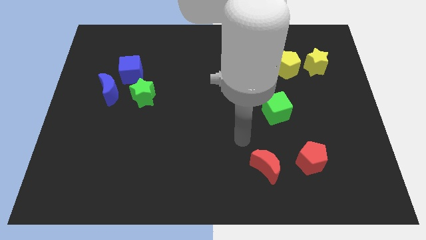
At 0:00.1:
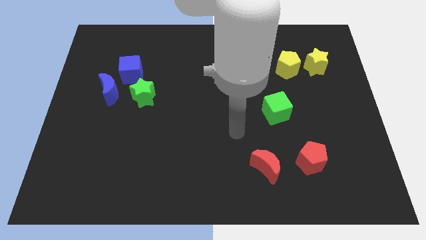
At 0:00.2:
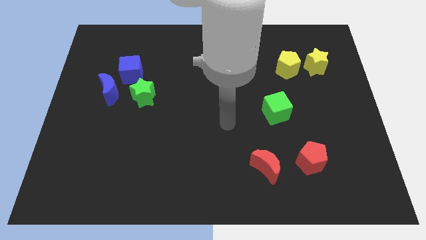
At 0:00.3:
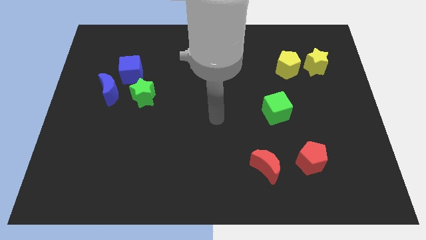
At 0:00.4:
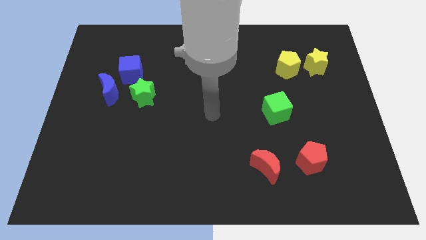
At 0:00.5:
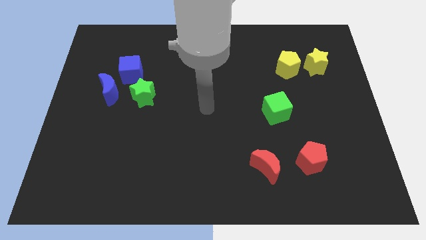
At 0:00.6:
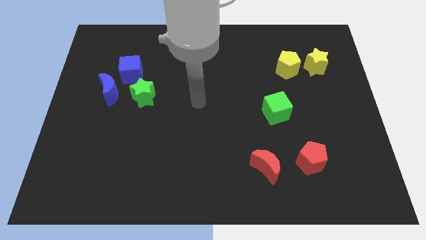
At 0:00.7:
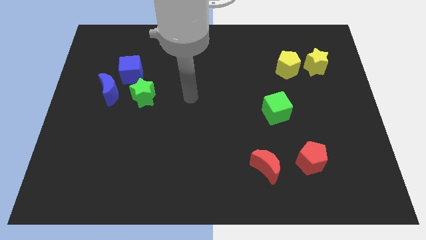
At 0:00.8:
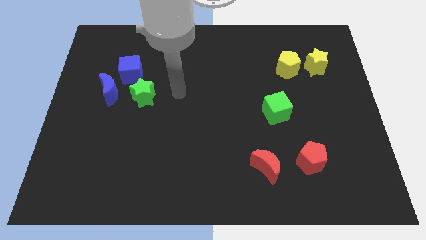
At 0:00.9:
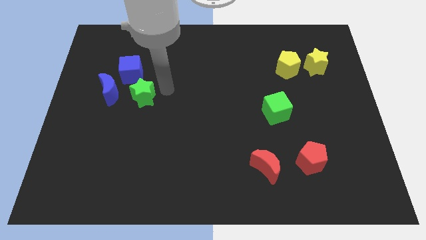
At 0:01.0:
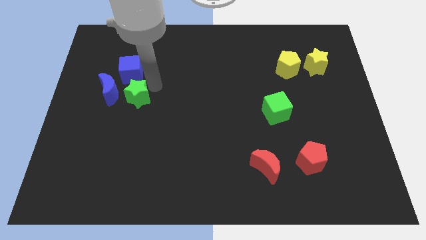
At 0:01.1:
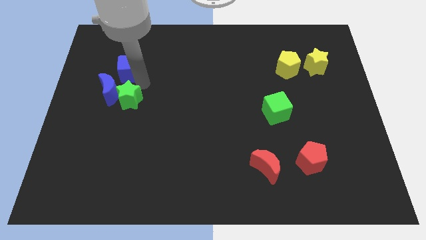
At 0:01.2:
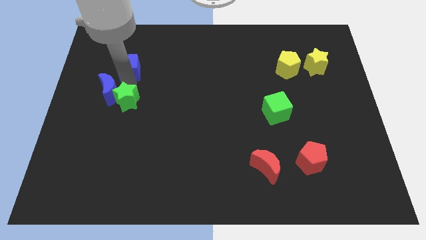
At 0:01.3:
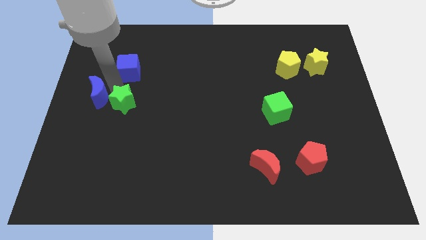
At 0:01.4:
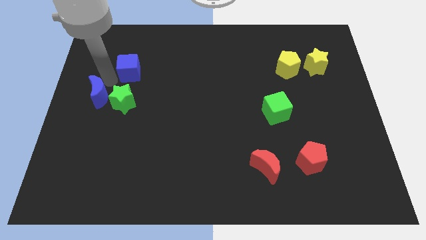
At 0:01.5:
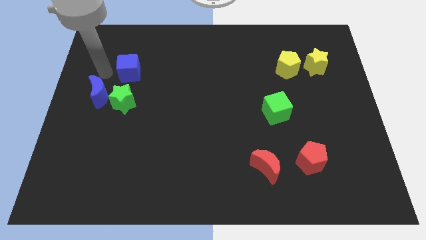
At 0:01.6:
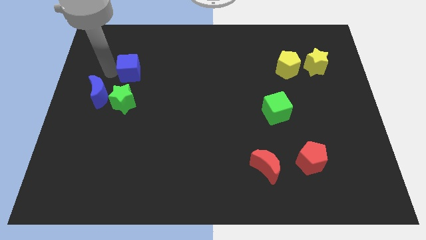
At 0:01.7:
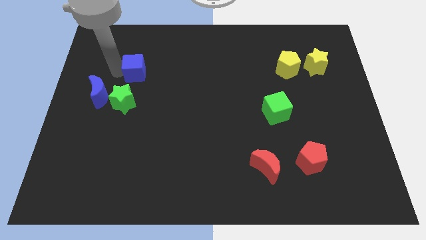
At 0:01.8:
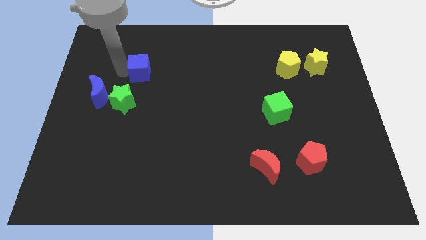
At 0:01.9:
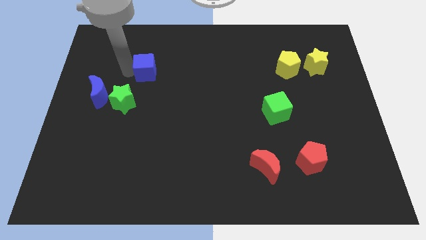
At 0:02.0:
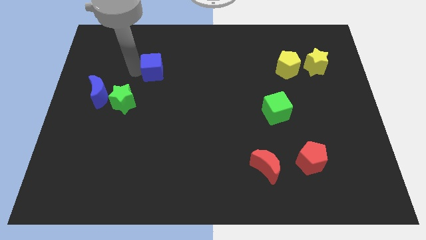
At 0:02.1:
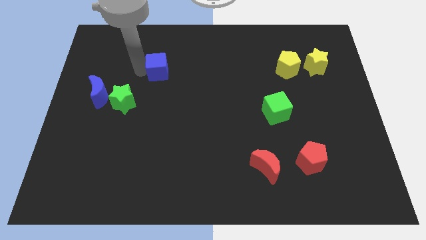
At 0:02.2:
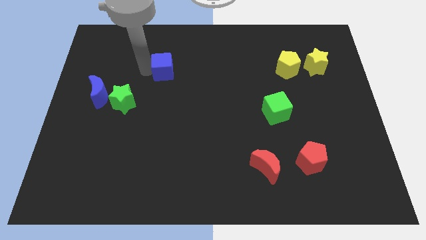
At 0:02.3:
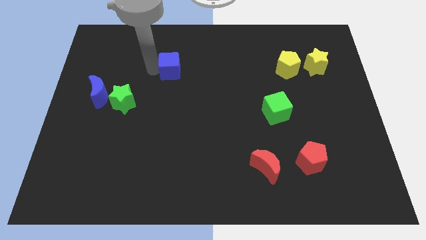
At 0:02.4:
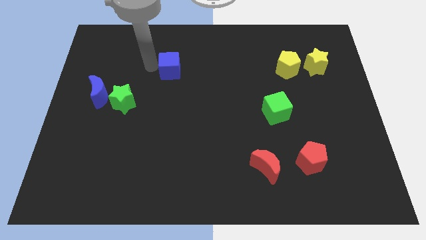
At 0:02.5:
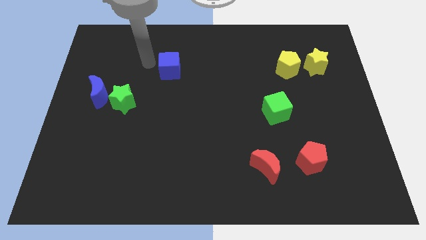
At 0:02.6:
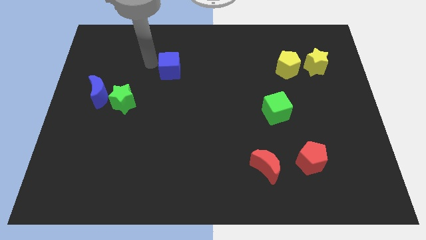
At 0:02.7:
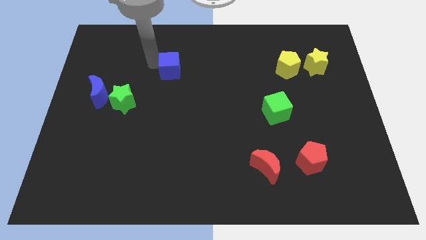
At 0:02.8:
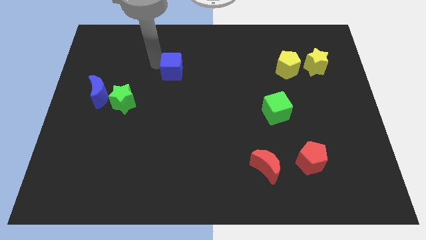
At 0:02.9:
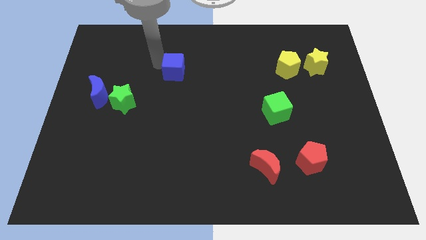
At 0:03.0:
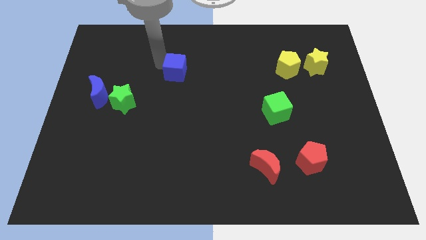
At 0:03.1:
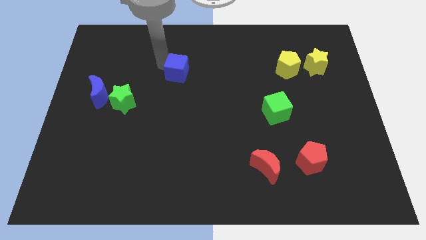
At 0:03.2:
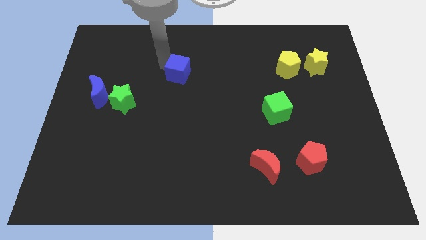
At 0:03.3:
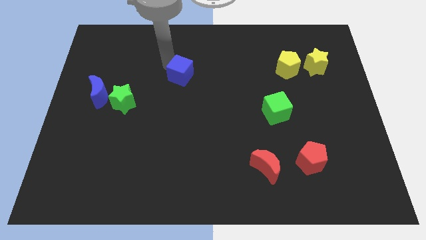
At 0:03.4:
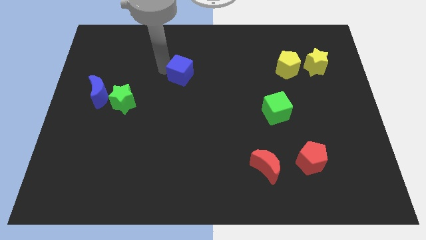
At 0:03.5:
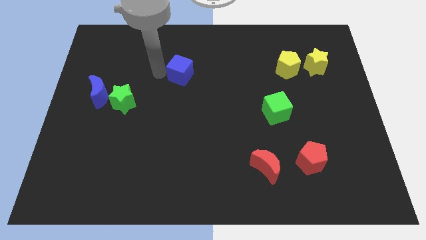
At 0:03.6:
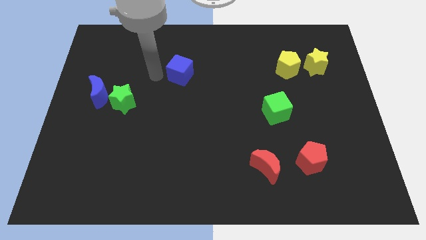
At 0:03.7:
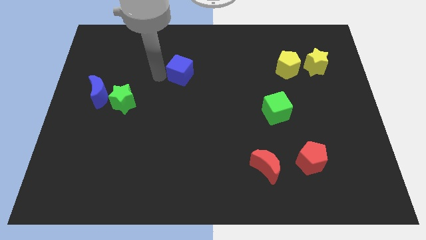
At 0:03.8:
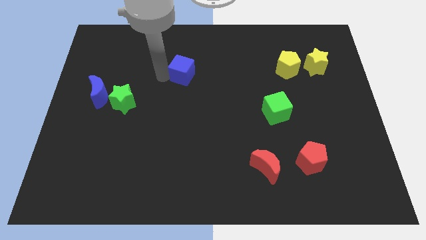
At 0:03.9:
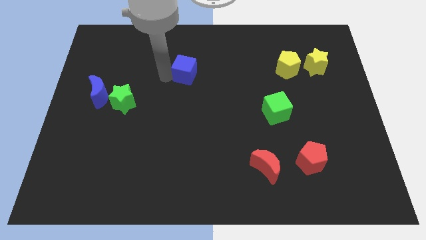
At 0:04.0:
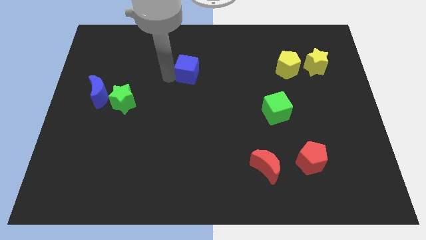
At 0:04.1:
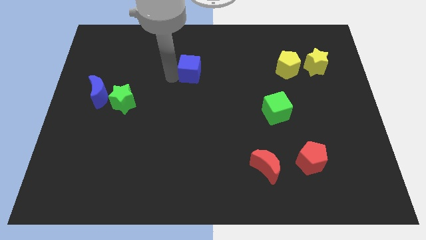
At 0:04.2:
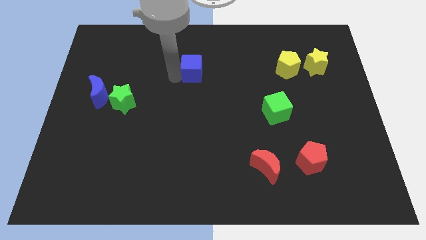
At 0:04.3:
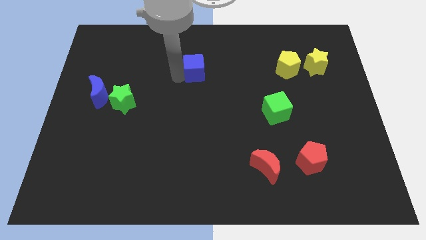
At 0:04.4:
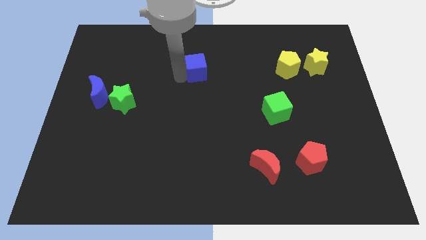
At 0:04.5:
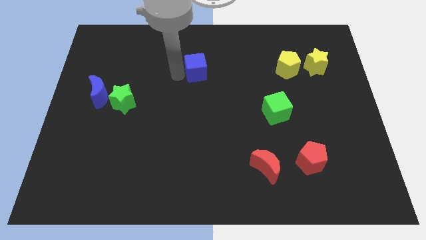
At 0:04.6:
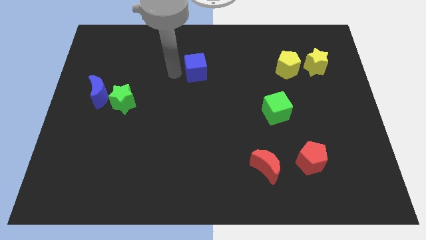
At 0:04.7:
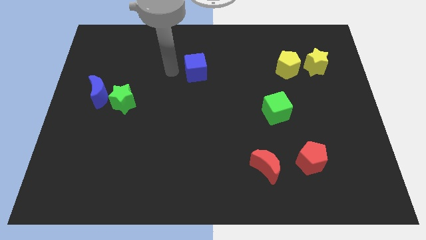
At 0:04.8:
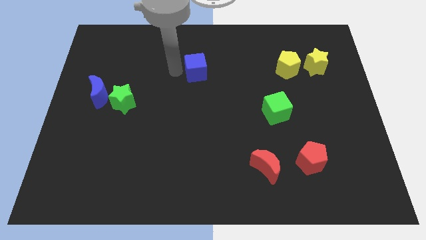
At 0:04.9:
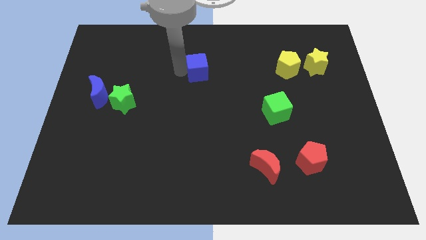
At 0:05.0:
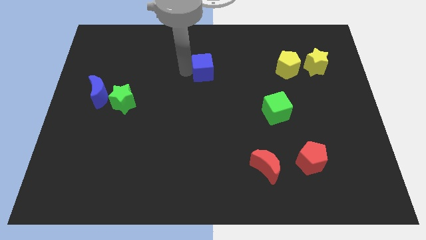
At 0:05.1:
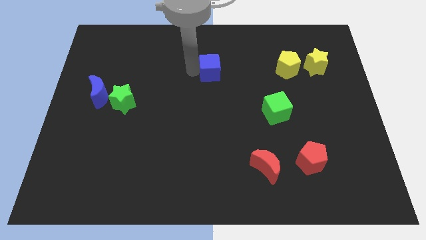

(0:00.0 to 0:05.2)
move the blue cube right

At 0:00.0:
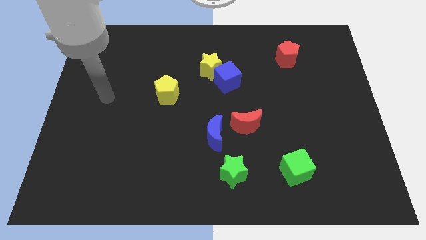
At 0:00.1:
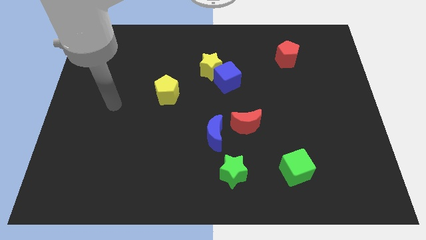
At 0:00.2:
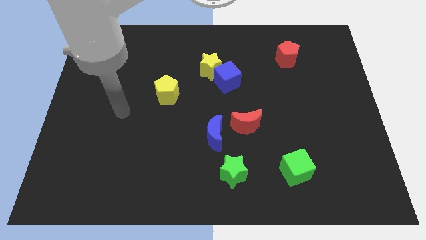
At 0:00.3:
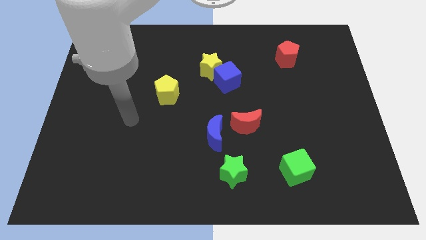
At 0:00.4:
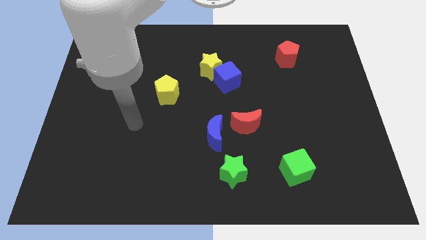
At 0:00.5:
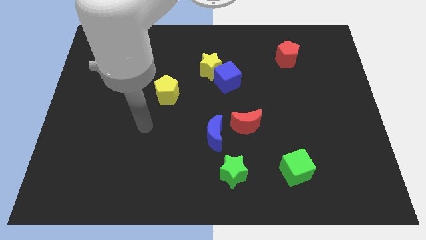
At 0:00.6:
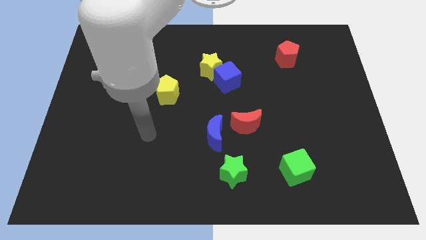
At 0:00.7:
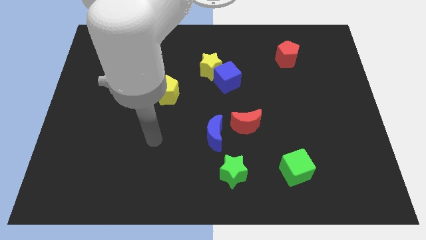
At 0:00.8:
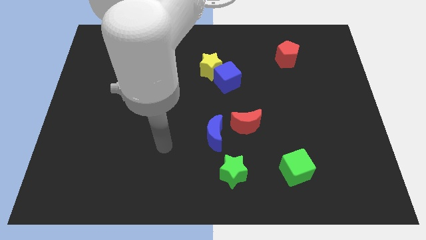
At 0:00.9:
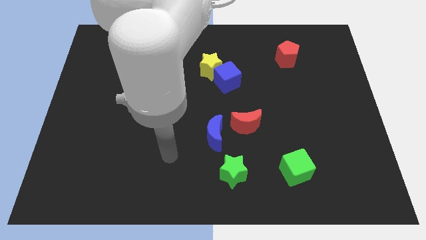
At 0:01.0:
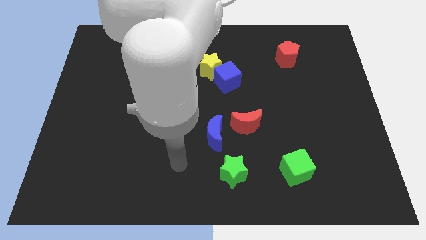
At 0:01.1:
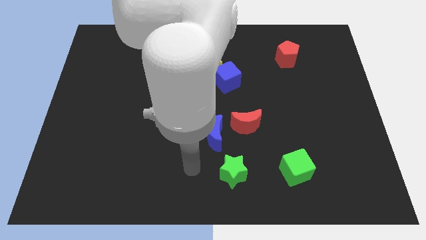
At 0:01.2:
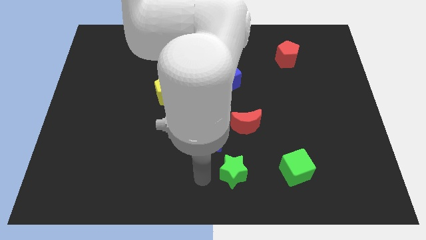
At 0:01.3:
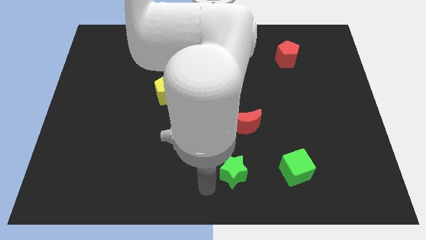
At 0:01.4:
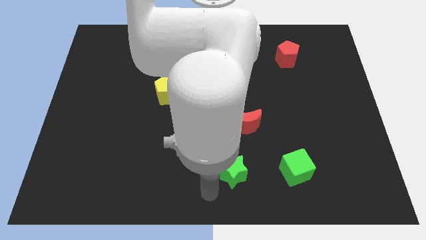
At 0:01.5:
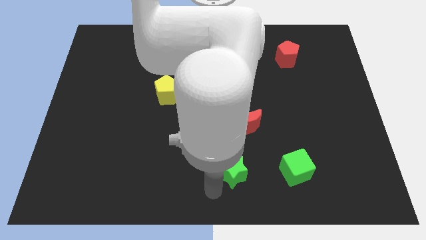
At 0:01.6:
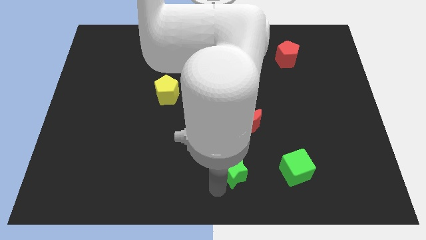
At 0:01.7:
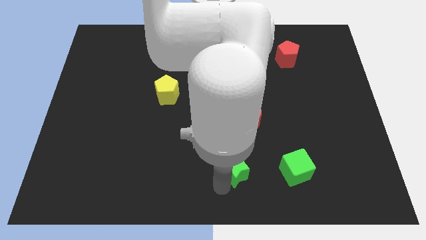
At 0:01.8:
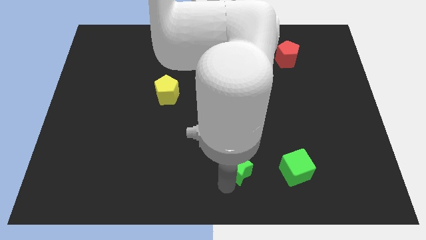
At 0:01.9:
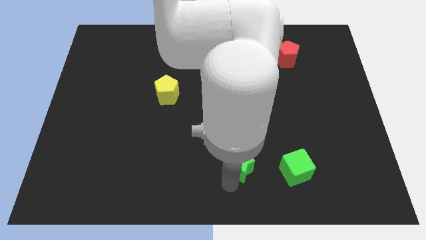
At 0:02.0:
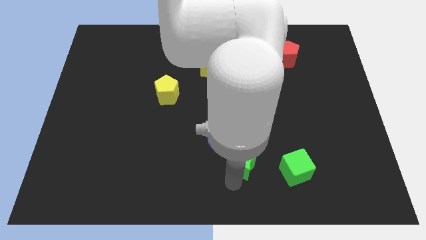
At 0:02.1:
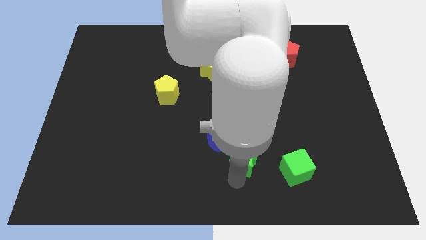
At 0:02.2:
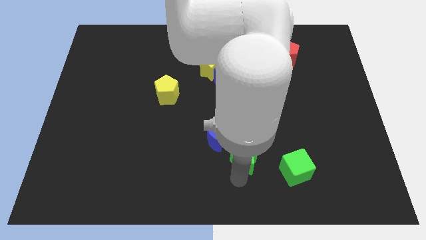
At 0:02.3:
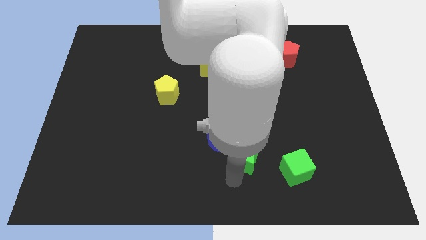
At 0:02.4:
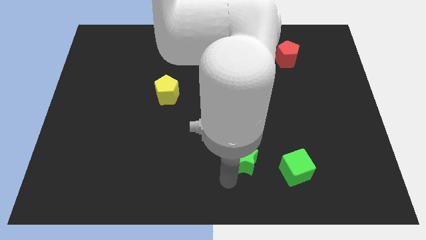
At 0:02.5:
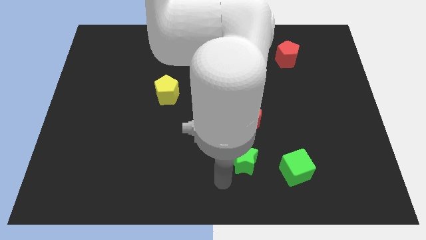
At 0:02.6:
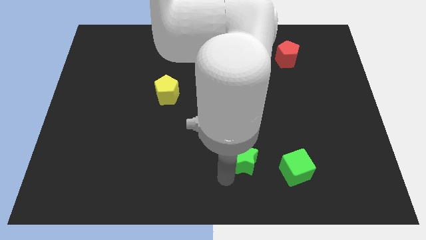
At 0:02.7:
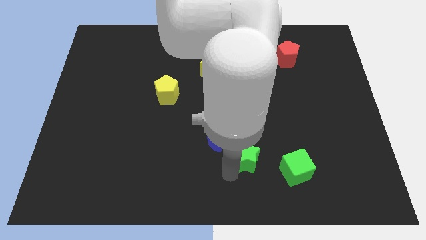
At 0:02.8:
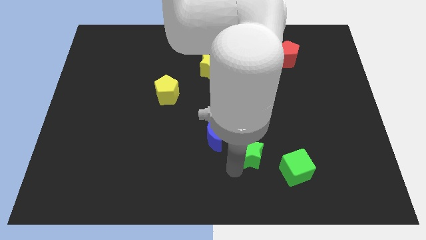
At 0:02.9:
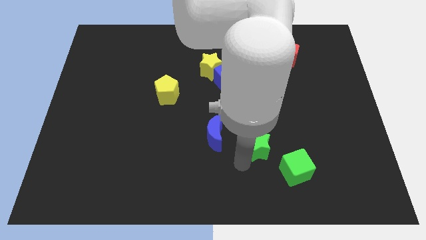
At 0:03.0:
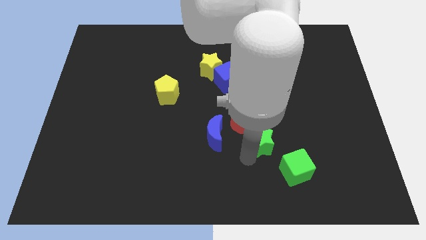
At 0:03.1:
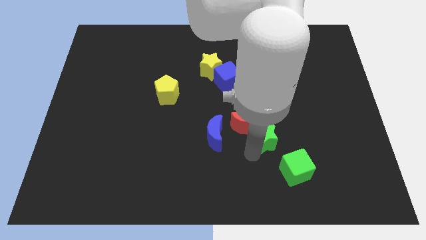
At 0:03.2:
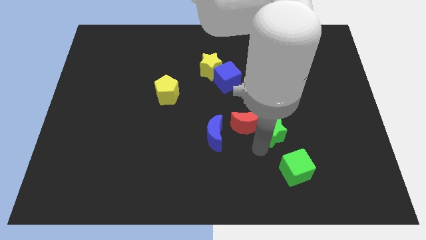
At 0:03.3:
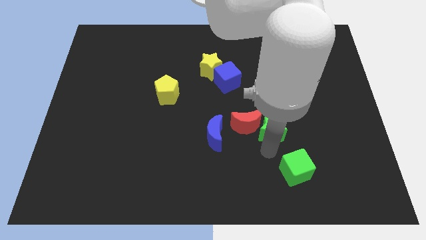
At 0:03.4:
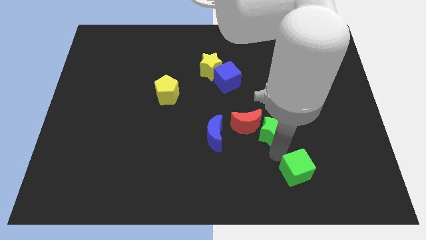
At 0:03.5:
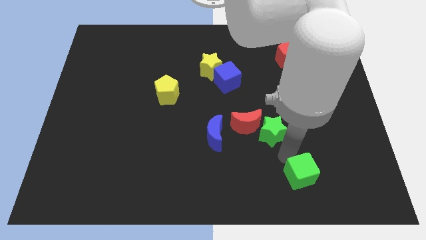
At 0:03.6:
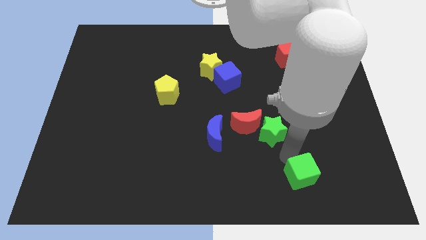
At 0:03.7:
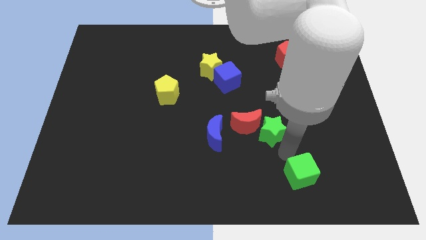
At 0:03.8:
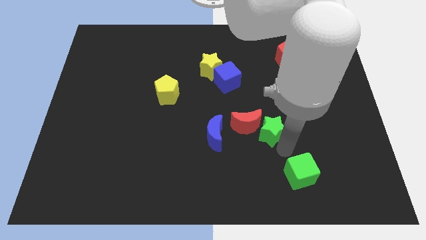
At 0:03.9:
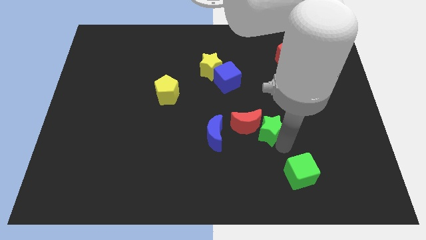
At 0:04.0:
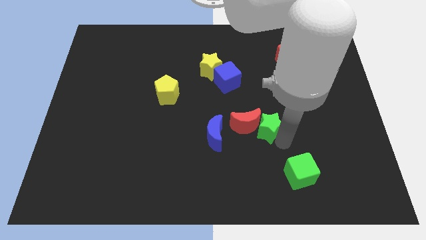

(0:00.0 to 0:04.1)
slightly move the green star up
